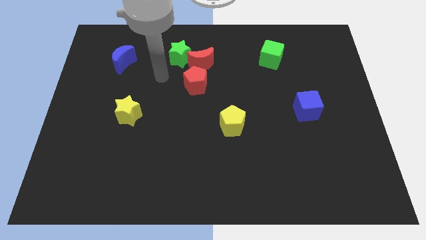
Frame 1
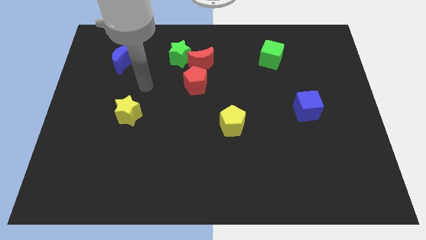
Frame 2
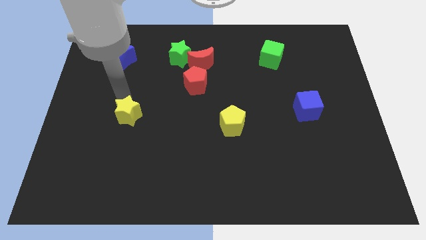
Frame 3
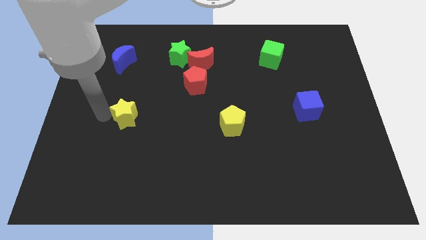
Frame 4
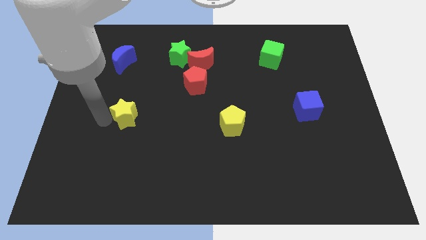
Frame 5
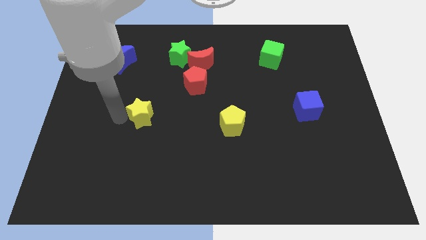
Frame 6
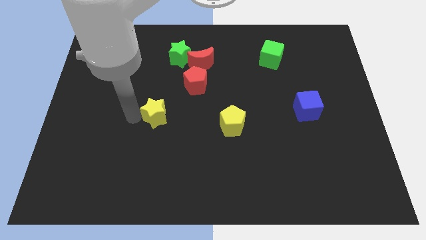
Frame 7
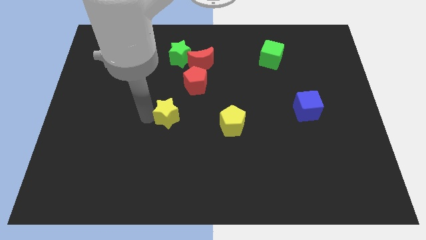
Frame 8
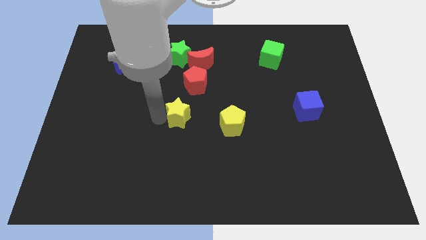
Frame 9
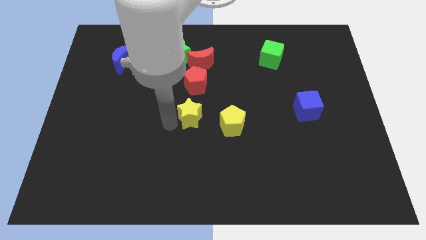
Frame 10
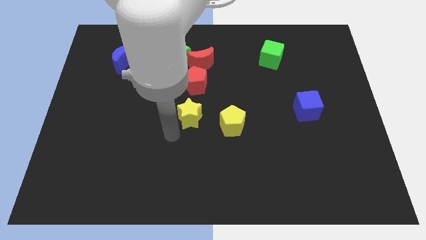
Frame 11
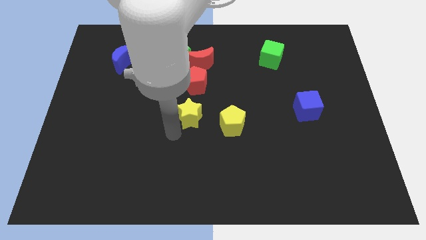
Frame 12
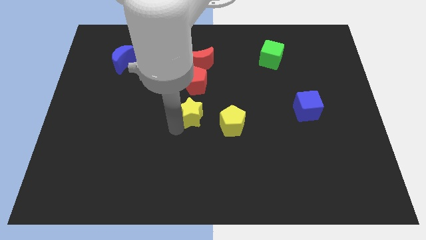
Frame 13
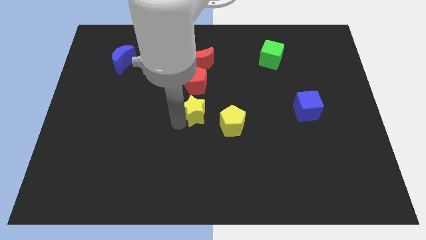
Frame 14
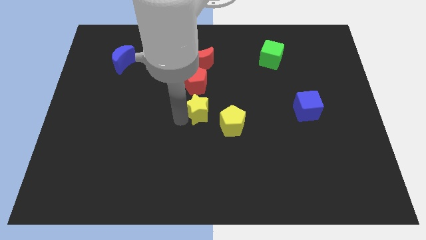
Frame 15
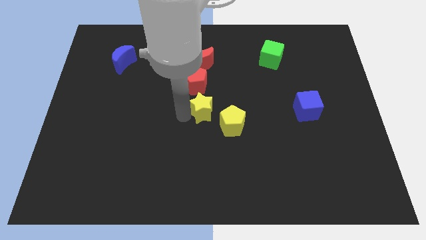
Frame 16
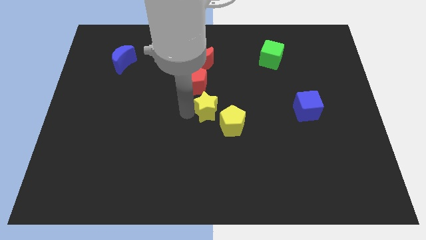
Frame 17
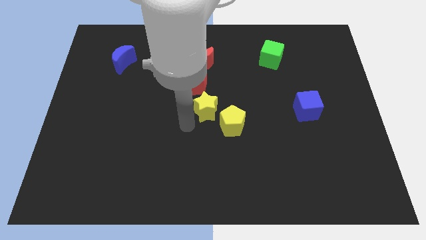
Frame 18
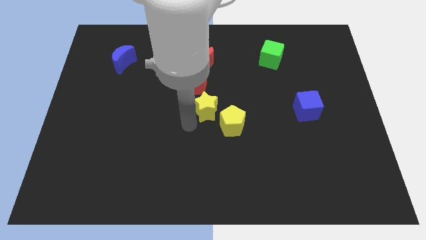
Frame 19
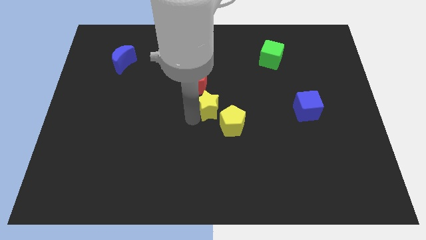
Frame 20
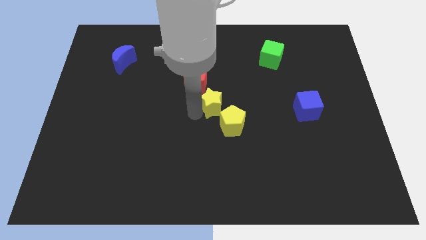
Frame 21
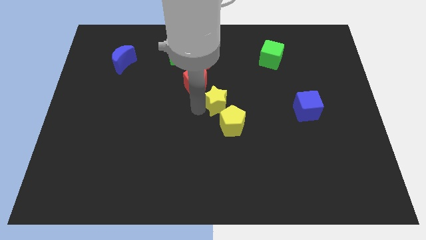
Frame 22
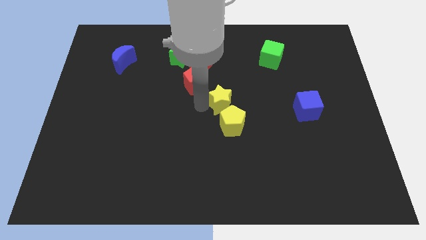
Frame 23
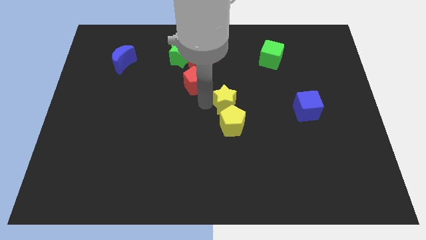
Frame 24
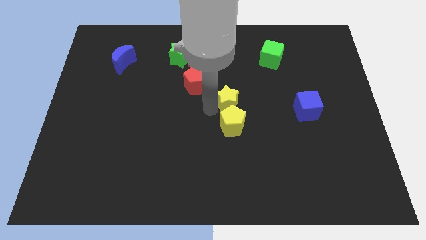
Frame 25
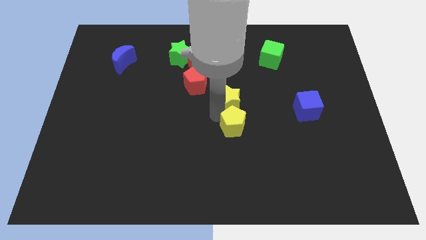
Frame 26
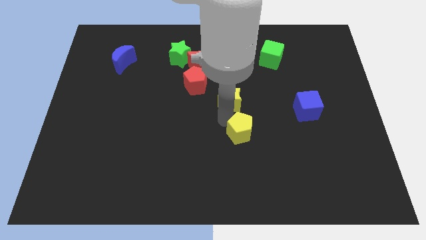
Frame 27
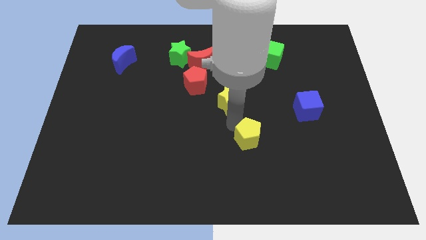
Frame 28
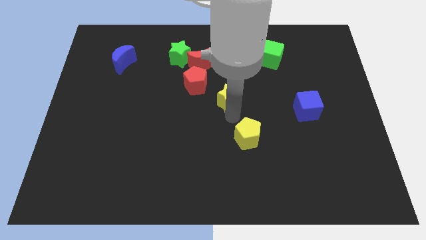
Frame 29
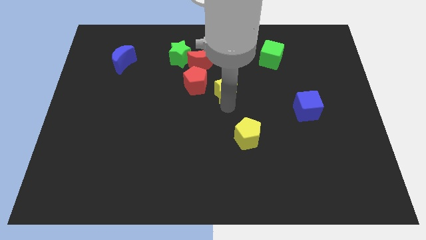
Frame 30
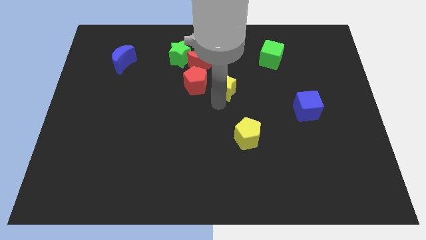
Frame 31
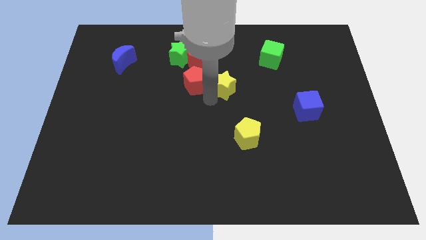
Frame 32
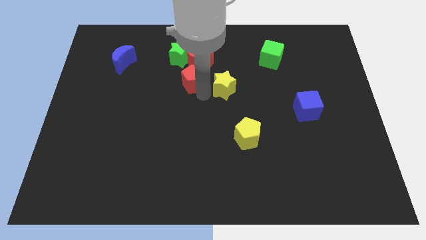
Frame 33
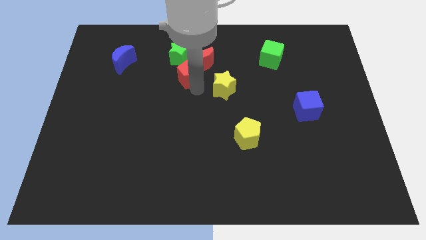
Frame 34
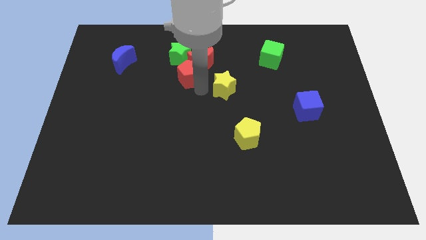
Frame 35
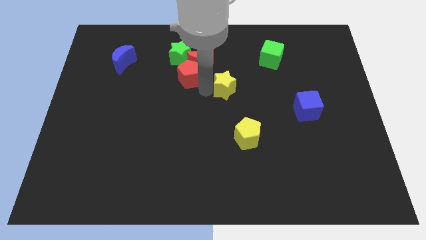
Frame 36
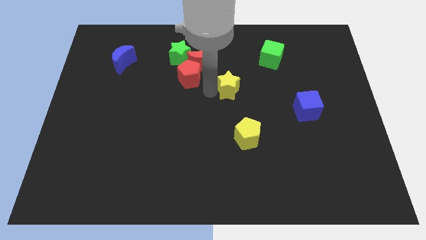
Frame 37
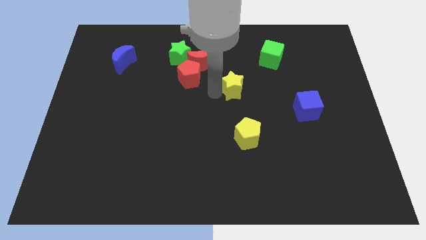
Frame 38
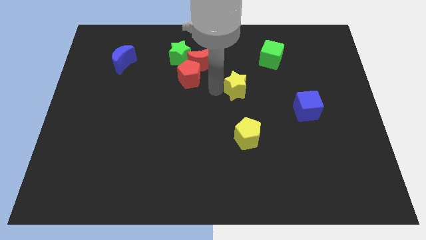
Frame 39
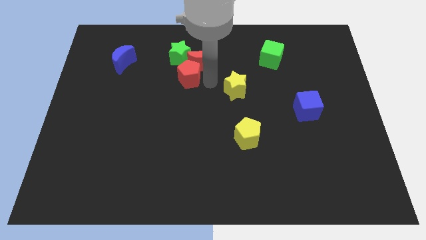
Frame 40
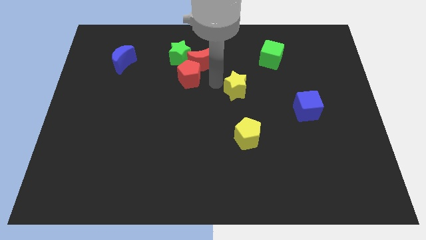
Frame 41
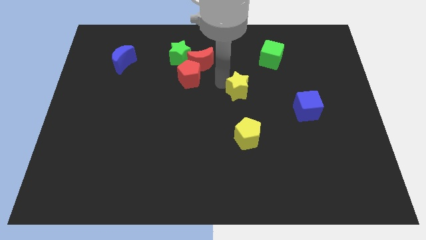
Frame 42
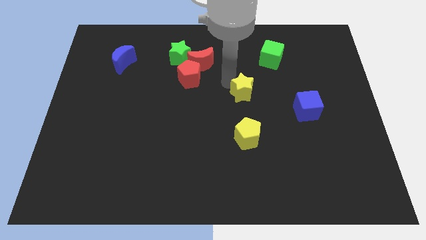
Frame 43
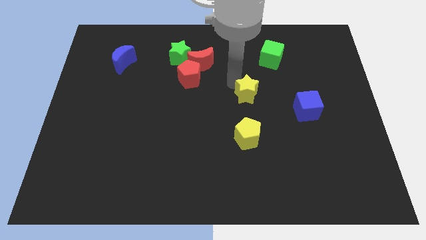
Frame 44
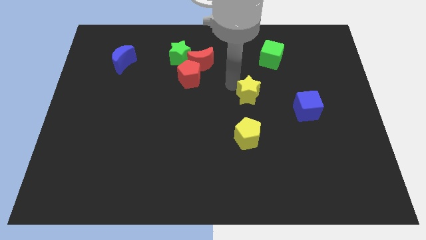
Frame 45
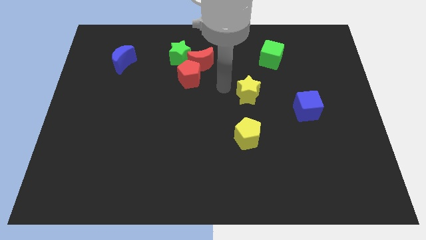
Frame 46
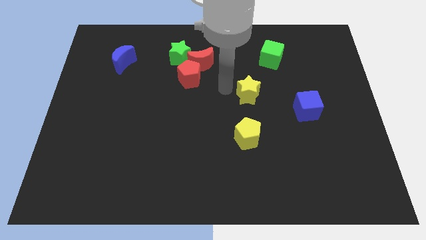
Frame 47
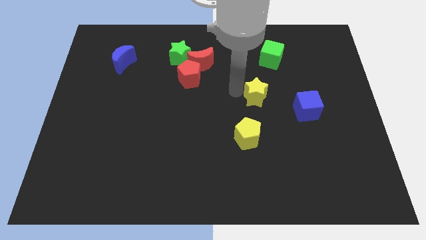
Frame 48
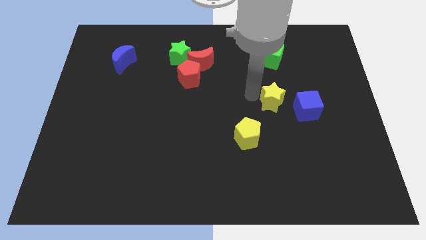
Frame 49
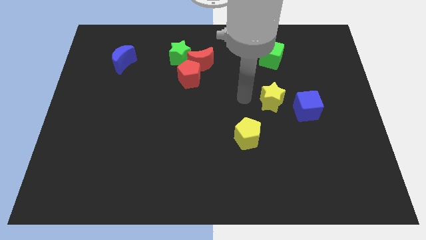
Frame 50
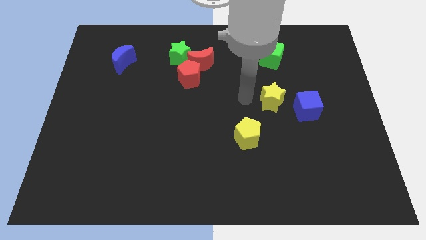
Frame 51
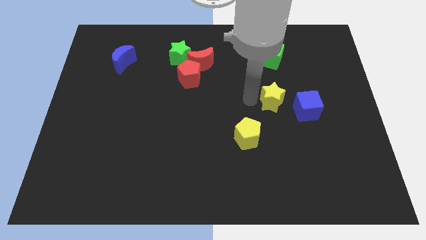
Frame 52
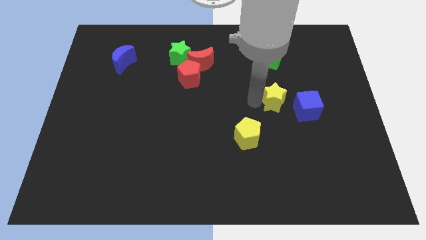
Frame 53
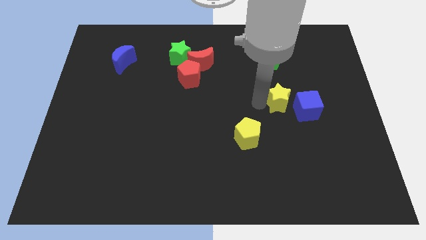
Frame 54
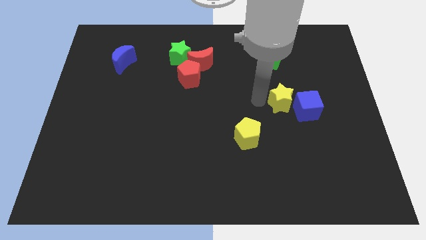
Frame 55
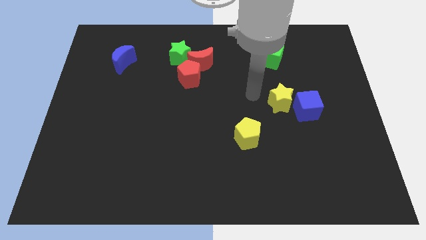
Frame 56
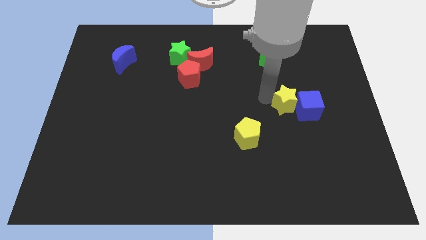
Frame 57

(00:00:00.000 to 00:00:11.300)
move the yellow star towards the blue cube

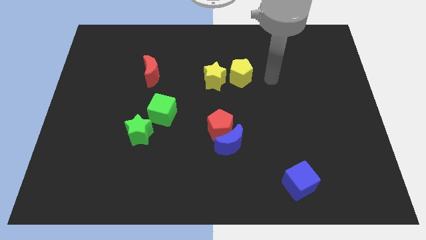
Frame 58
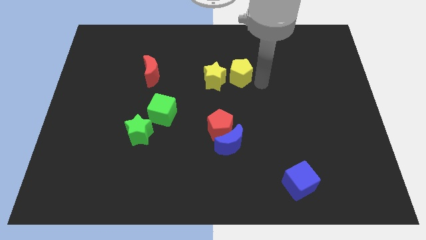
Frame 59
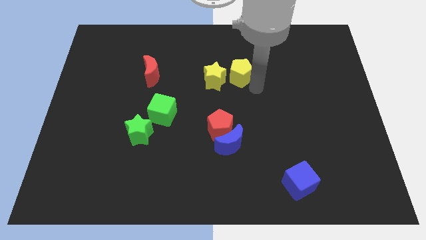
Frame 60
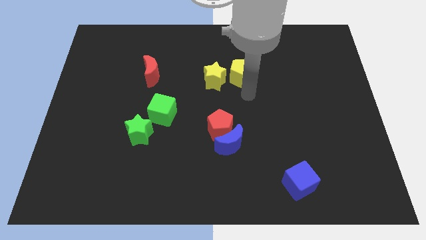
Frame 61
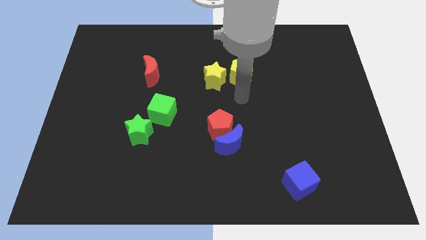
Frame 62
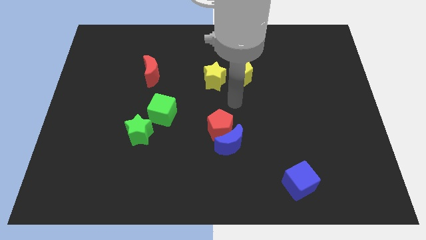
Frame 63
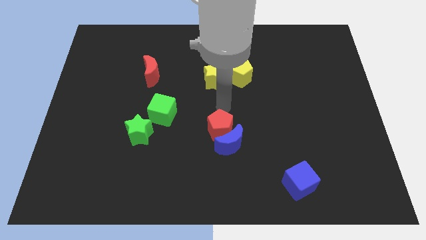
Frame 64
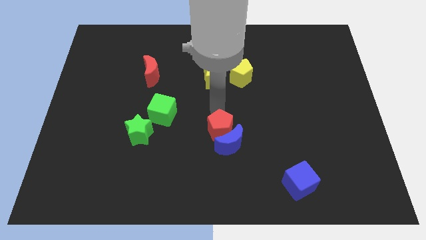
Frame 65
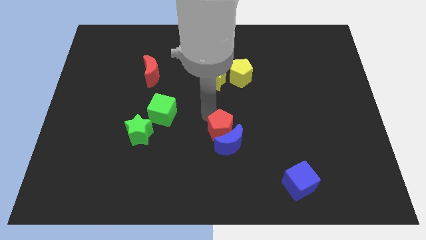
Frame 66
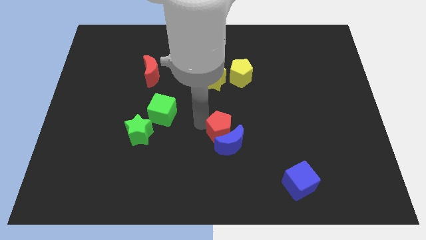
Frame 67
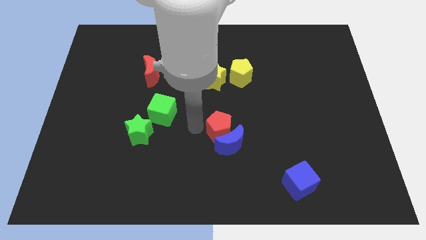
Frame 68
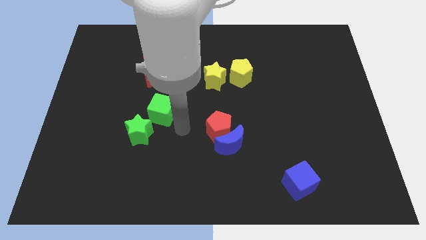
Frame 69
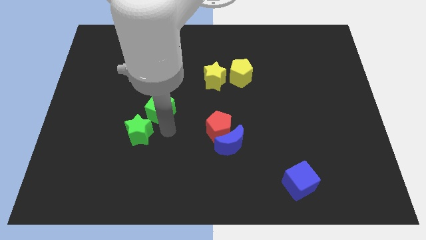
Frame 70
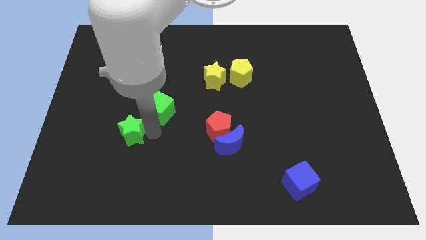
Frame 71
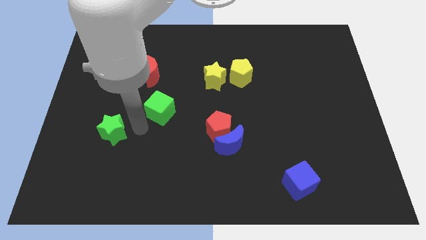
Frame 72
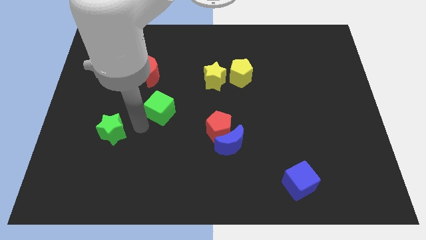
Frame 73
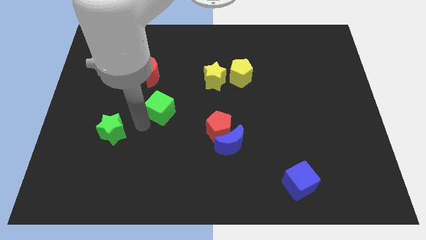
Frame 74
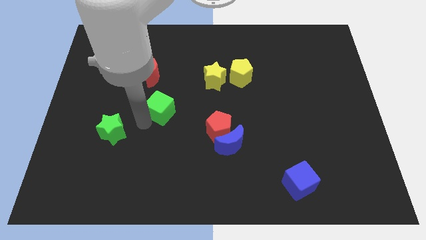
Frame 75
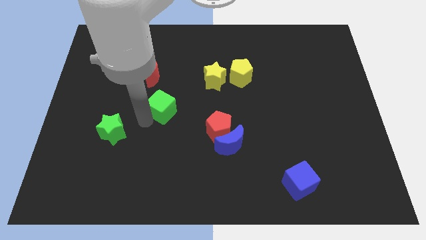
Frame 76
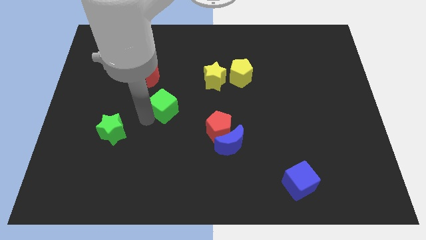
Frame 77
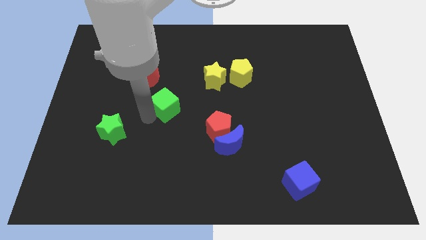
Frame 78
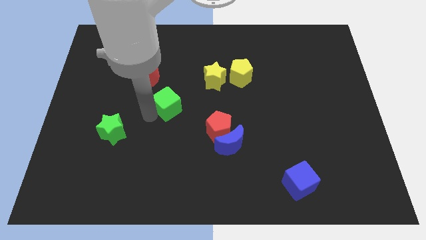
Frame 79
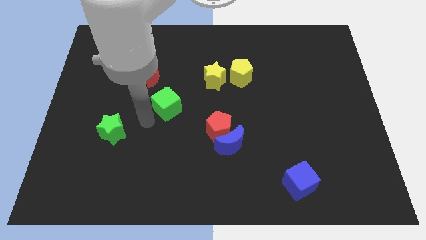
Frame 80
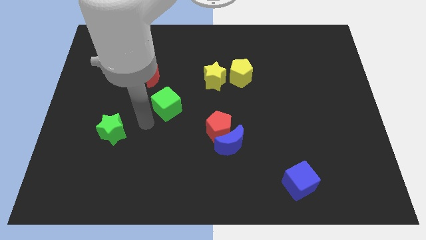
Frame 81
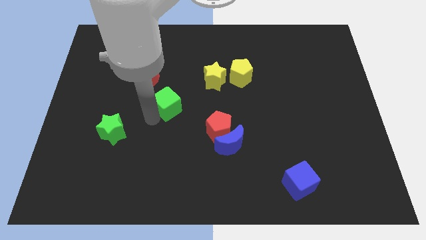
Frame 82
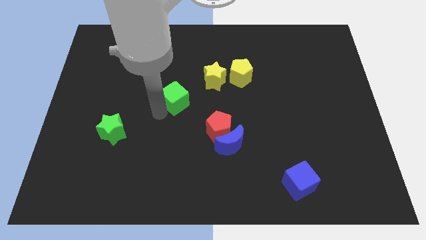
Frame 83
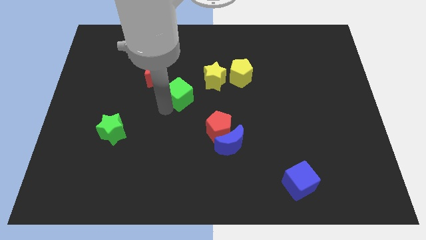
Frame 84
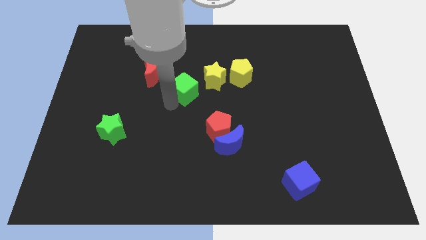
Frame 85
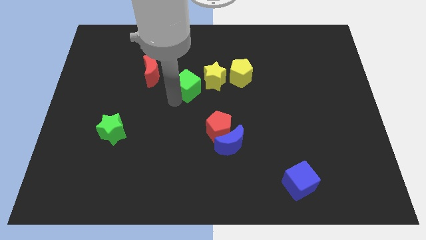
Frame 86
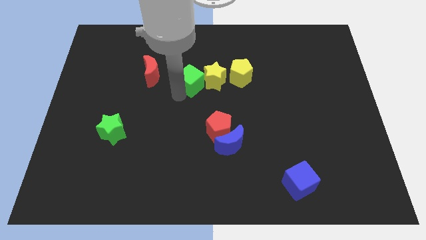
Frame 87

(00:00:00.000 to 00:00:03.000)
put the green cube next to the yellow star
